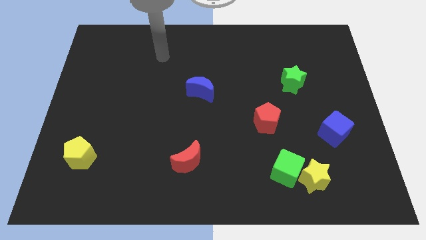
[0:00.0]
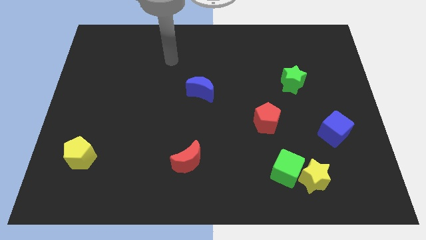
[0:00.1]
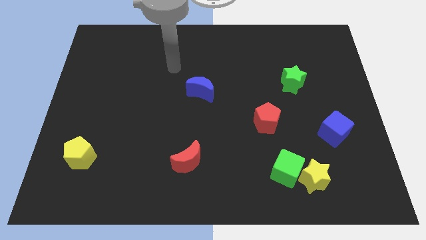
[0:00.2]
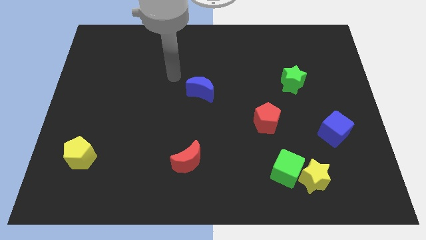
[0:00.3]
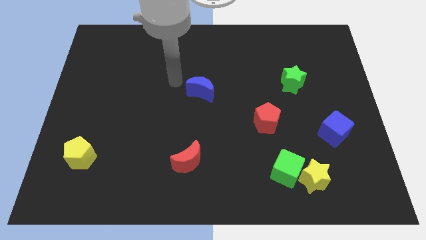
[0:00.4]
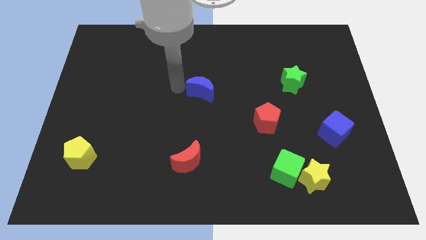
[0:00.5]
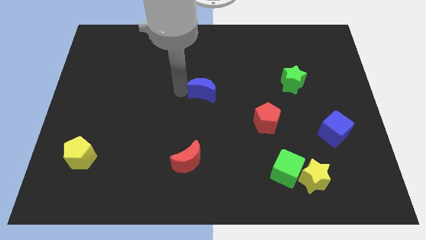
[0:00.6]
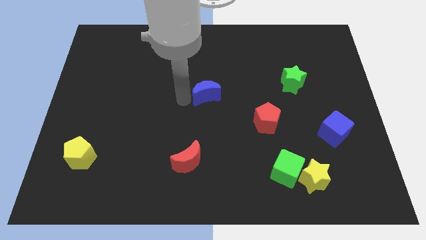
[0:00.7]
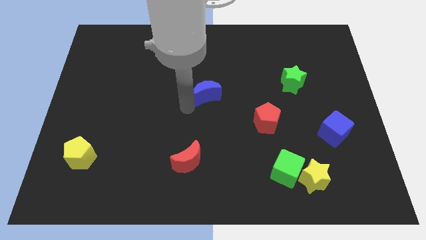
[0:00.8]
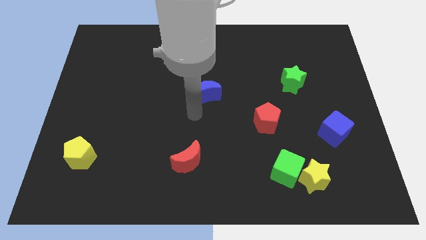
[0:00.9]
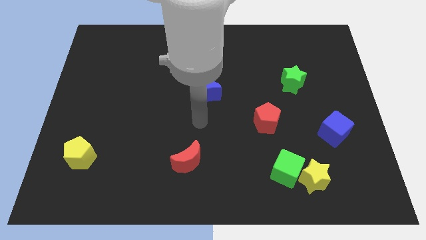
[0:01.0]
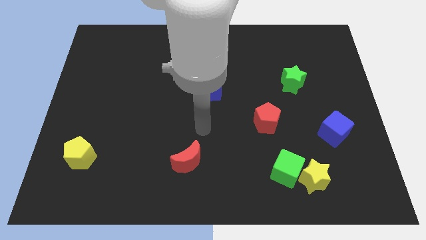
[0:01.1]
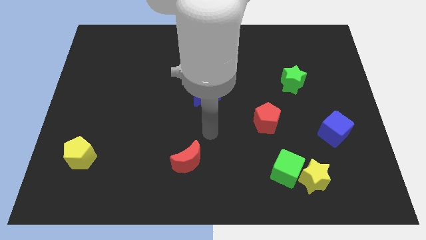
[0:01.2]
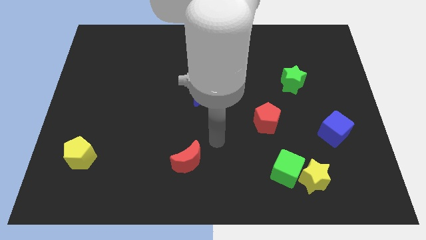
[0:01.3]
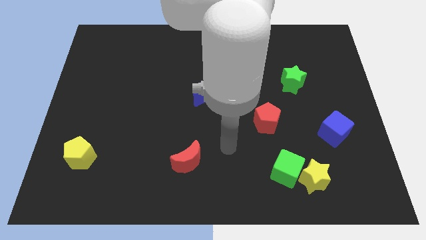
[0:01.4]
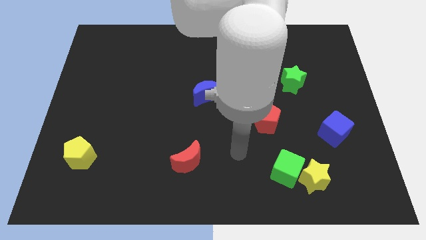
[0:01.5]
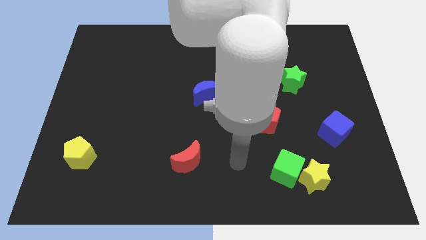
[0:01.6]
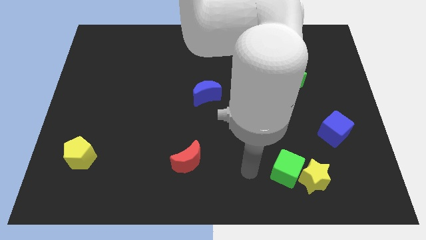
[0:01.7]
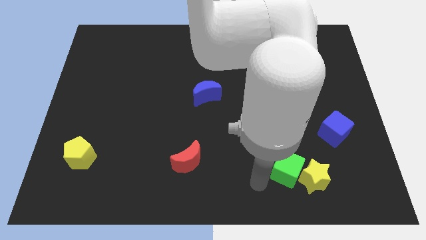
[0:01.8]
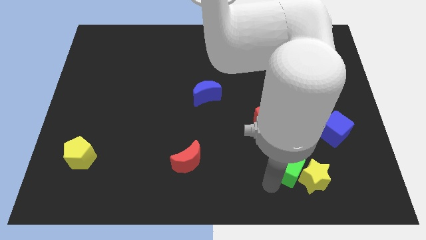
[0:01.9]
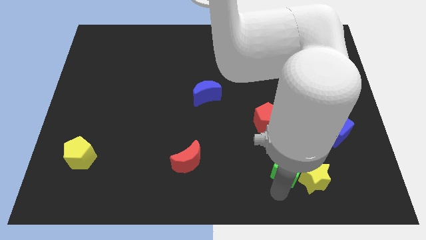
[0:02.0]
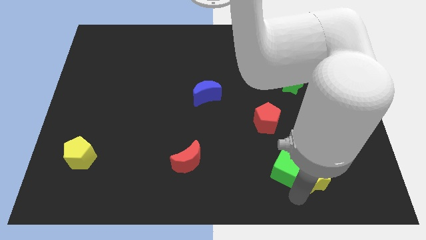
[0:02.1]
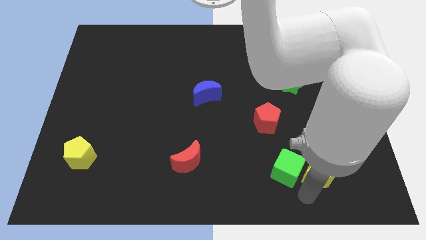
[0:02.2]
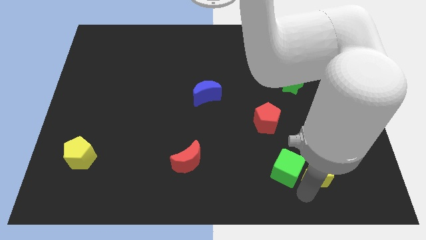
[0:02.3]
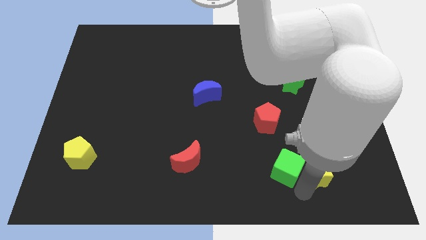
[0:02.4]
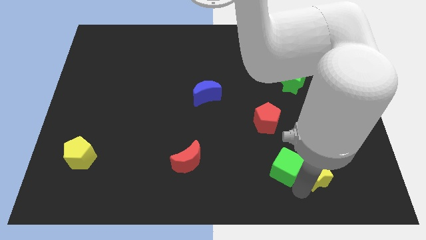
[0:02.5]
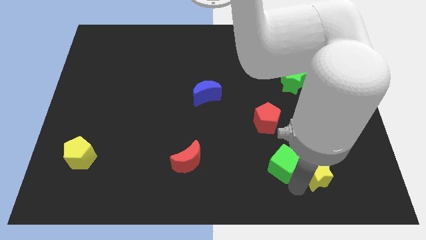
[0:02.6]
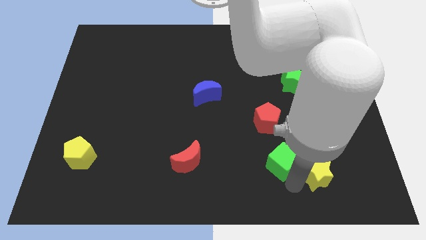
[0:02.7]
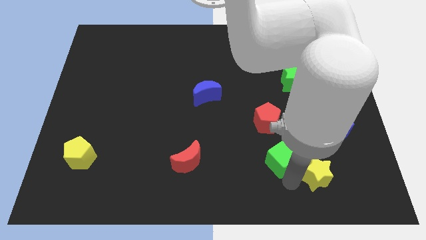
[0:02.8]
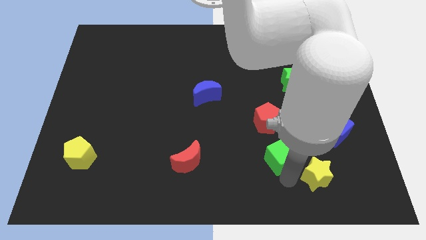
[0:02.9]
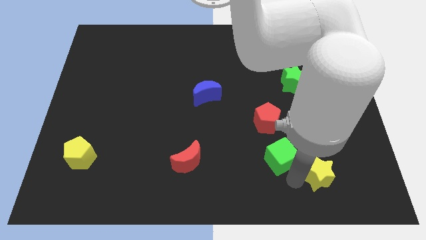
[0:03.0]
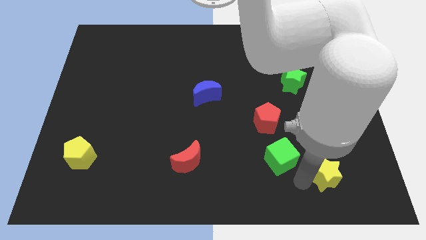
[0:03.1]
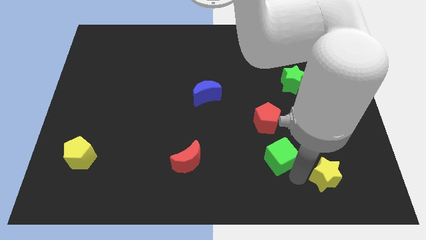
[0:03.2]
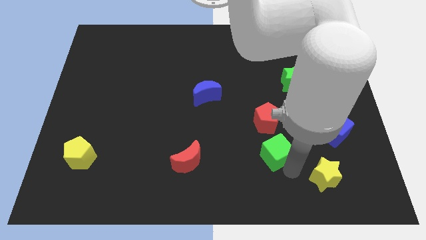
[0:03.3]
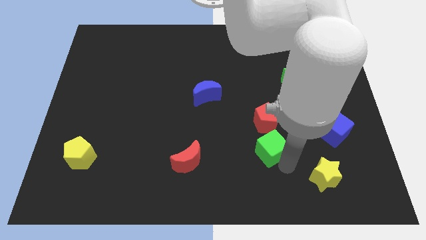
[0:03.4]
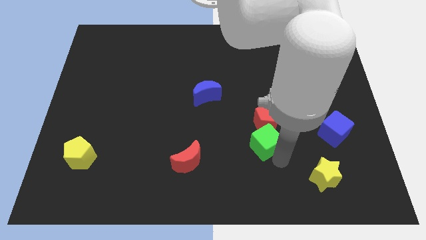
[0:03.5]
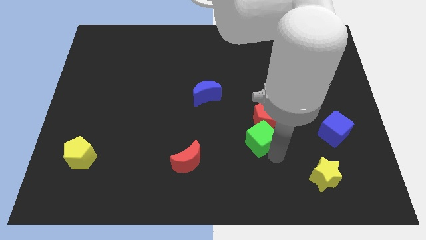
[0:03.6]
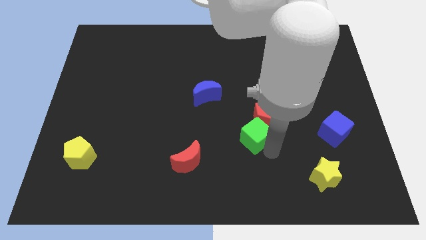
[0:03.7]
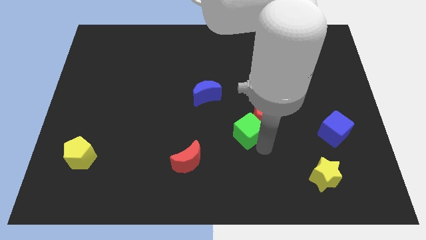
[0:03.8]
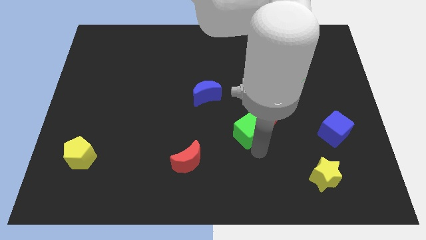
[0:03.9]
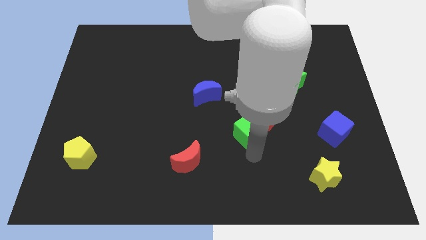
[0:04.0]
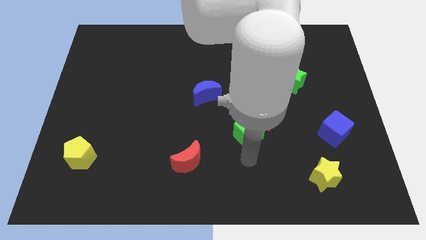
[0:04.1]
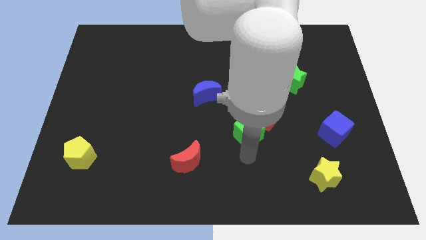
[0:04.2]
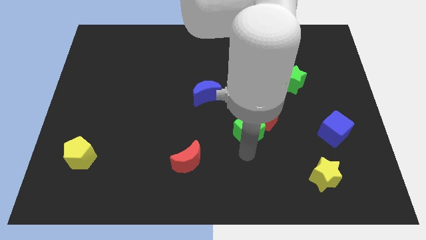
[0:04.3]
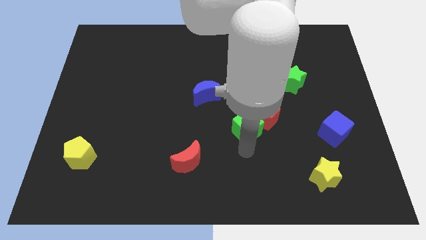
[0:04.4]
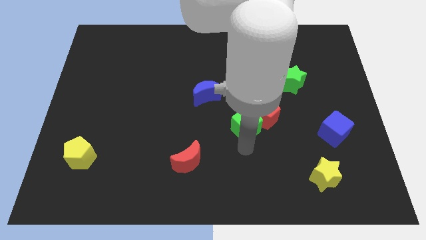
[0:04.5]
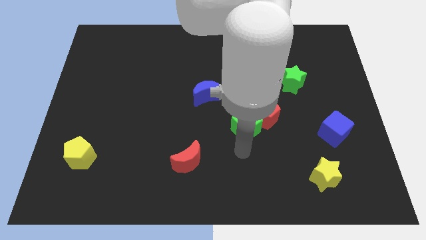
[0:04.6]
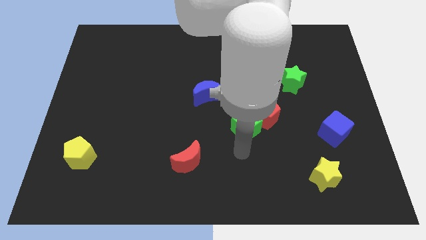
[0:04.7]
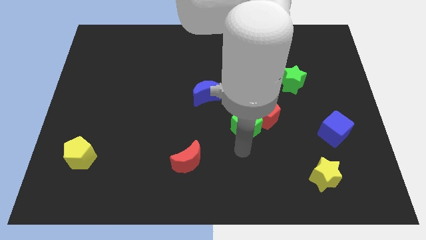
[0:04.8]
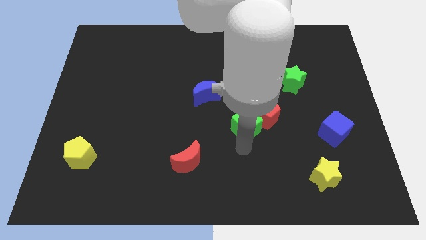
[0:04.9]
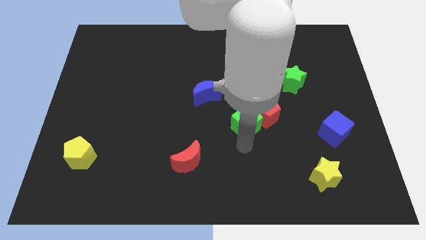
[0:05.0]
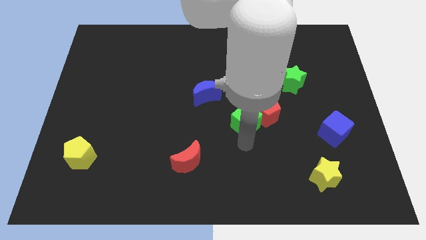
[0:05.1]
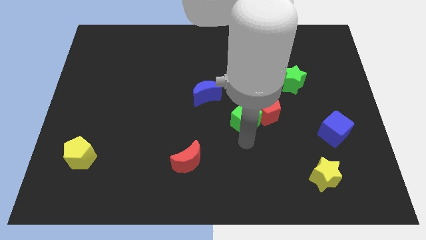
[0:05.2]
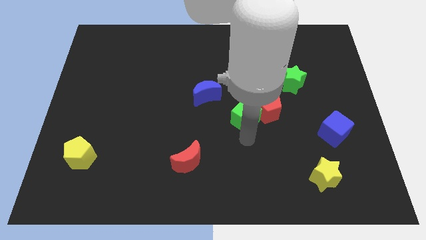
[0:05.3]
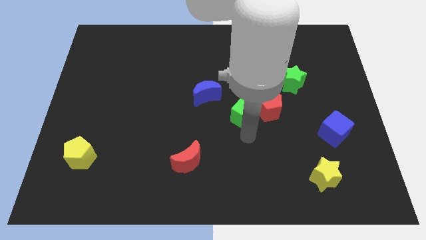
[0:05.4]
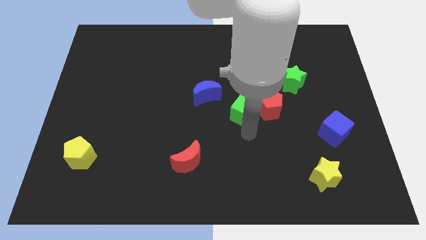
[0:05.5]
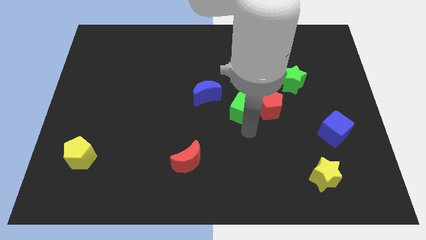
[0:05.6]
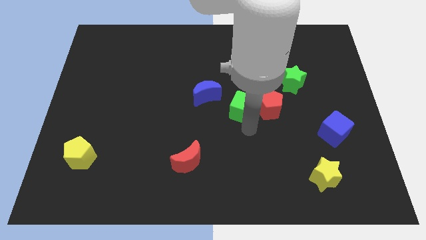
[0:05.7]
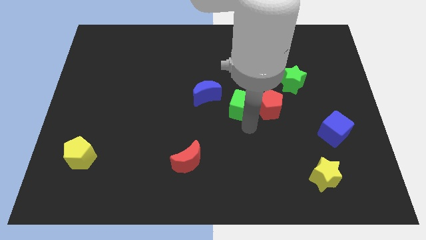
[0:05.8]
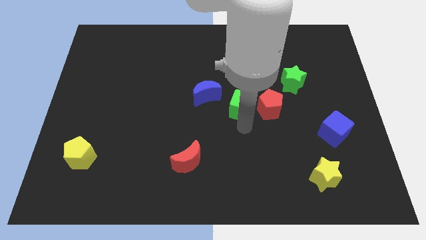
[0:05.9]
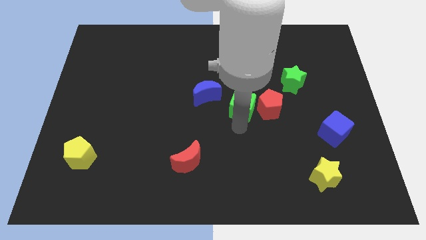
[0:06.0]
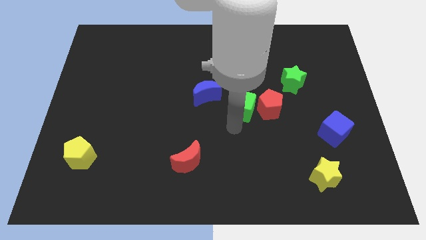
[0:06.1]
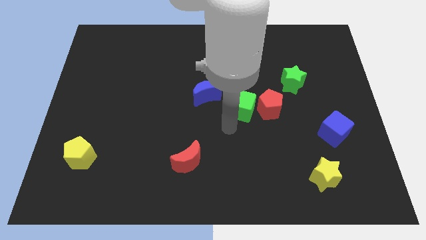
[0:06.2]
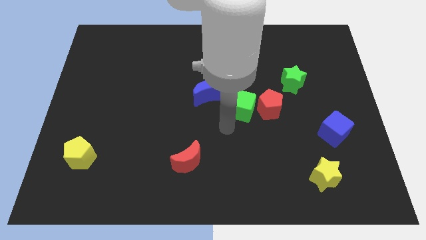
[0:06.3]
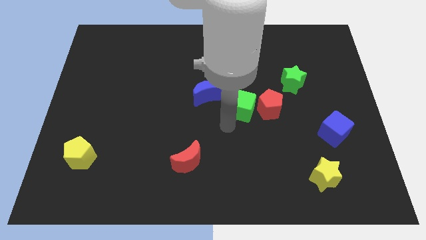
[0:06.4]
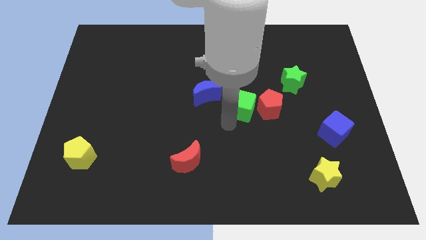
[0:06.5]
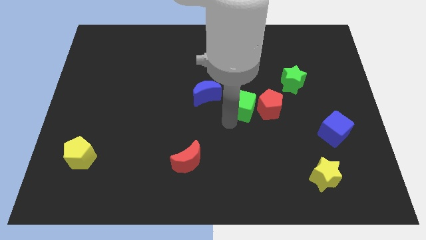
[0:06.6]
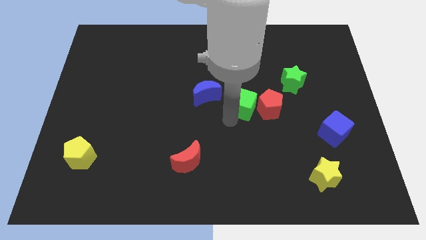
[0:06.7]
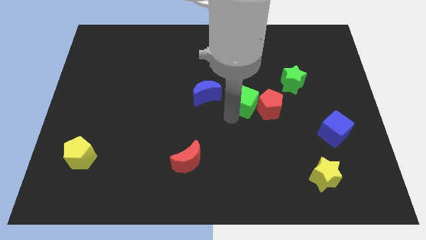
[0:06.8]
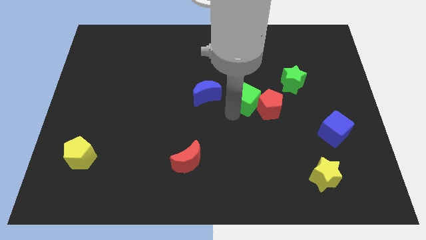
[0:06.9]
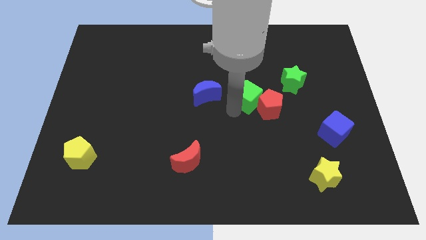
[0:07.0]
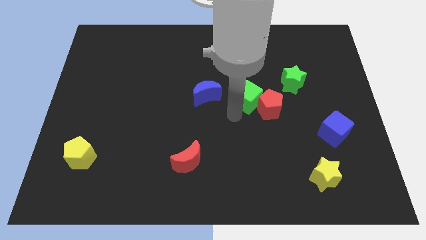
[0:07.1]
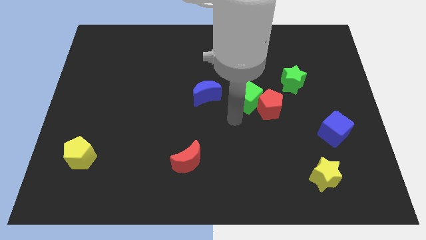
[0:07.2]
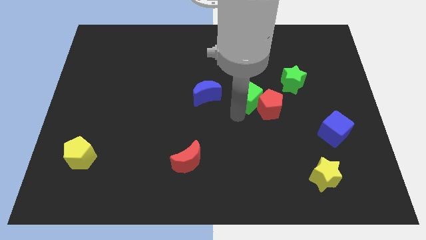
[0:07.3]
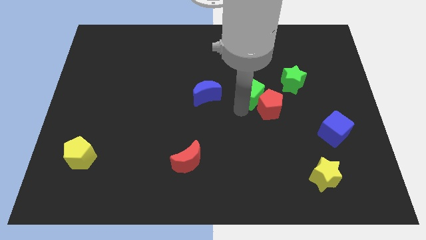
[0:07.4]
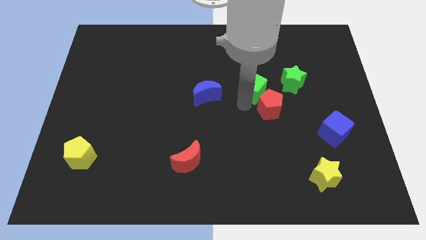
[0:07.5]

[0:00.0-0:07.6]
move the green cube up

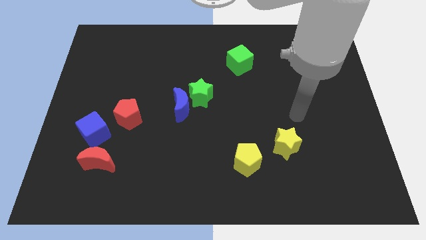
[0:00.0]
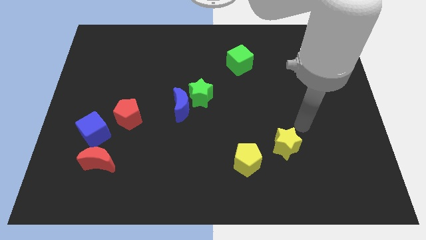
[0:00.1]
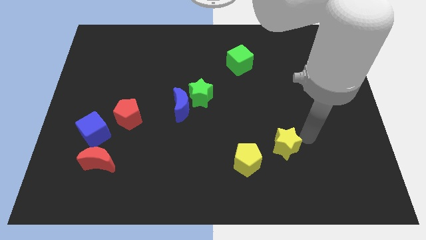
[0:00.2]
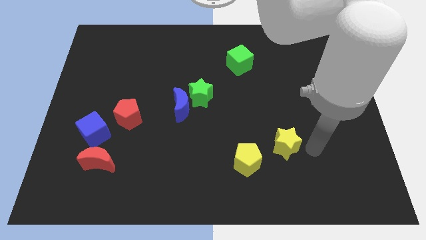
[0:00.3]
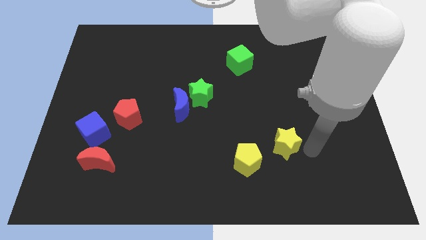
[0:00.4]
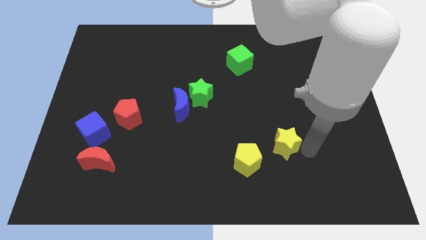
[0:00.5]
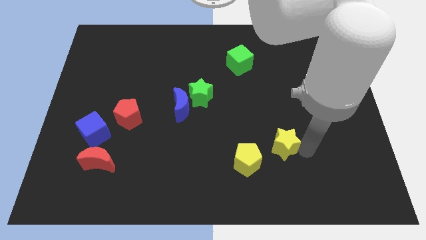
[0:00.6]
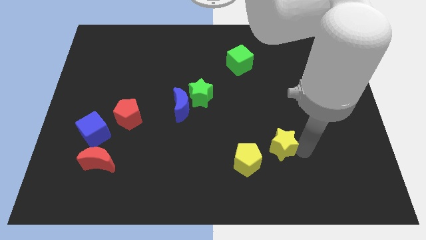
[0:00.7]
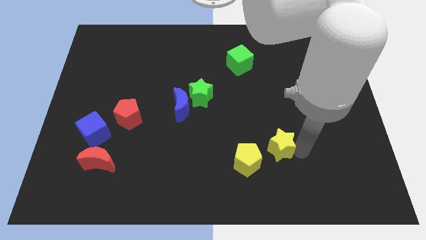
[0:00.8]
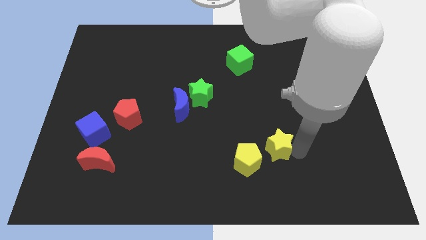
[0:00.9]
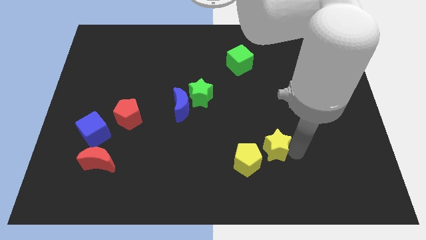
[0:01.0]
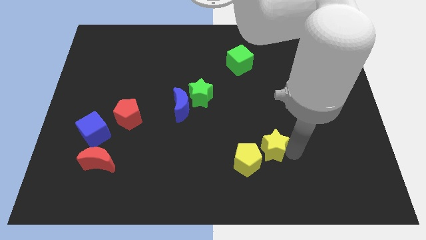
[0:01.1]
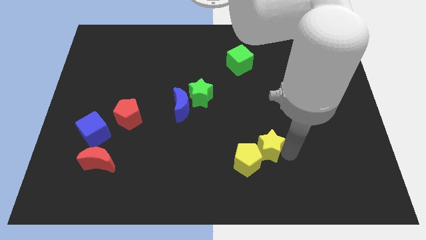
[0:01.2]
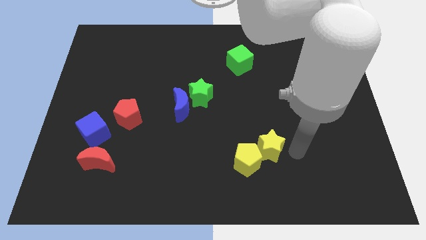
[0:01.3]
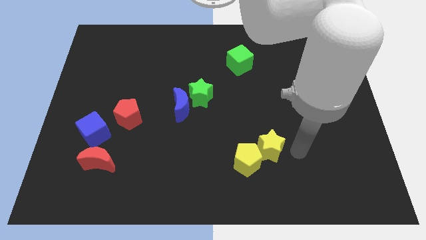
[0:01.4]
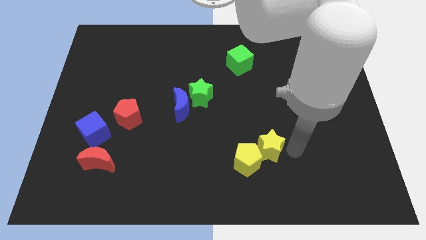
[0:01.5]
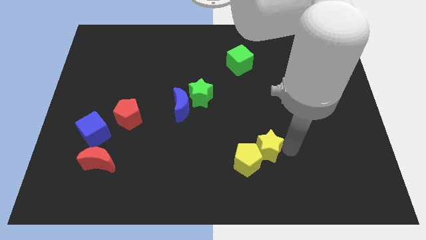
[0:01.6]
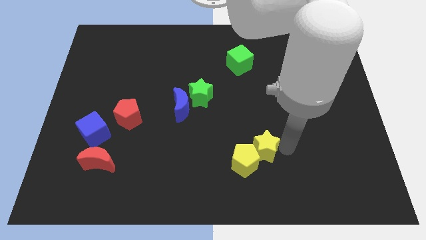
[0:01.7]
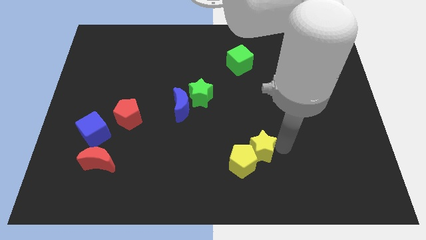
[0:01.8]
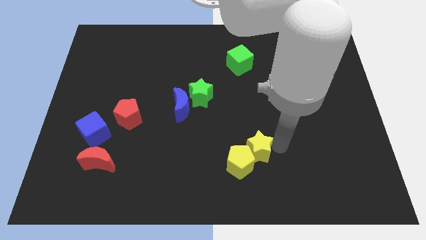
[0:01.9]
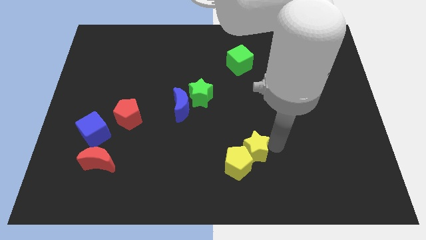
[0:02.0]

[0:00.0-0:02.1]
slightly push the yellow star left
